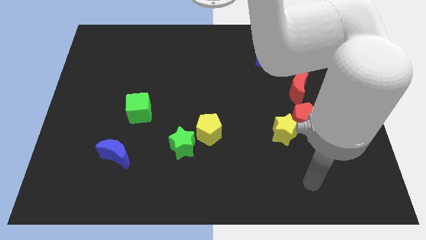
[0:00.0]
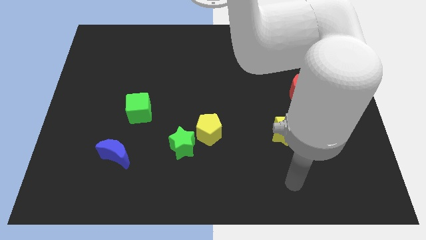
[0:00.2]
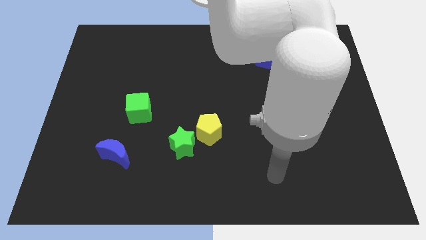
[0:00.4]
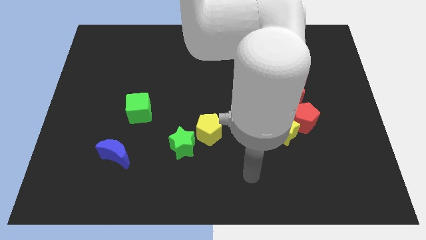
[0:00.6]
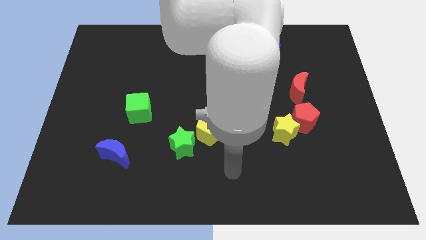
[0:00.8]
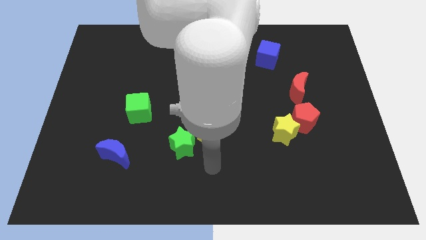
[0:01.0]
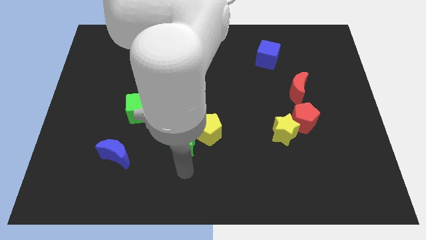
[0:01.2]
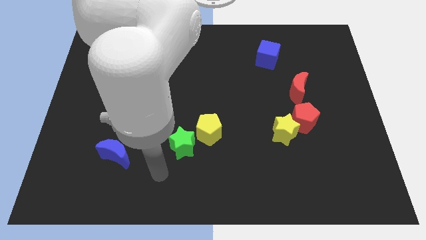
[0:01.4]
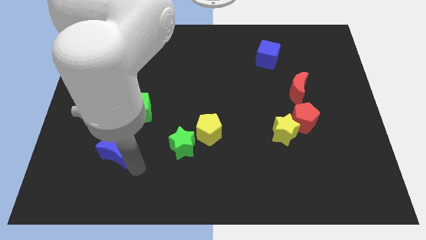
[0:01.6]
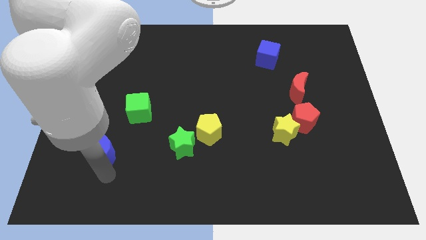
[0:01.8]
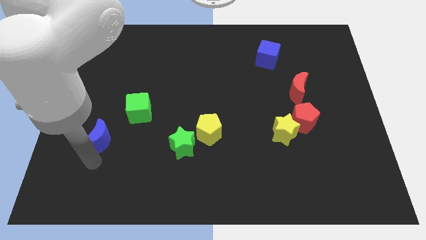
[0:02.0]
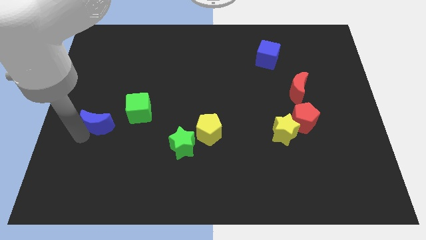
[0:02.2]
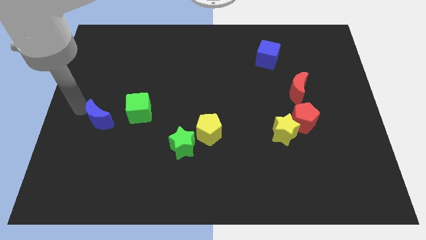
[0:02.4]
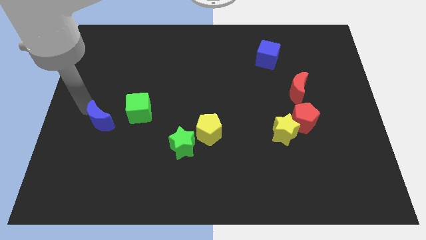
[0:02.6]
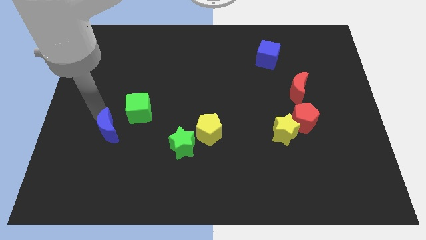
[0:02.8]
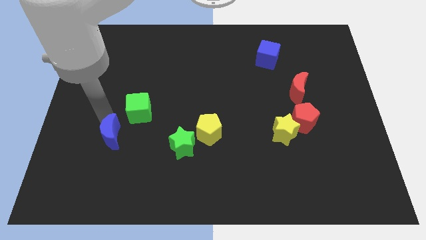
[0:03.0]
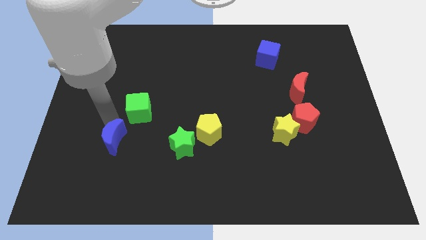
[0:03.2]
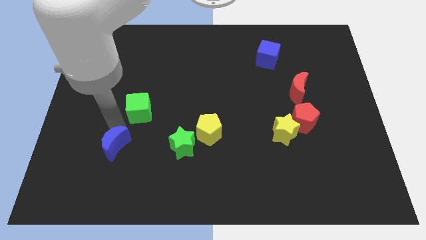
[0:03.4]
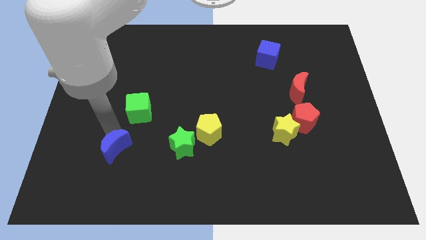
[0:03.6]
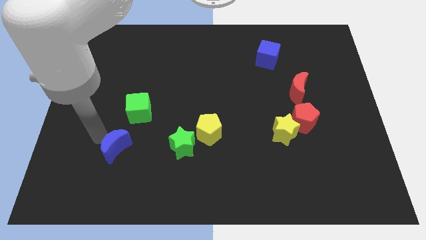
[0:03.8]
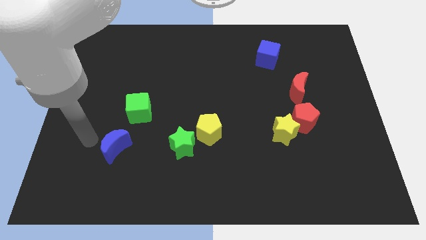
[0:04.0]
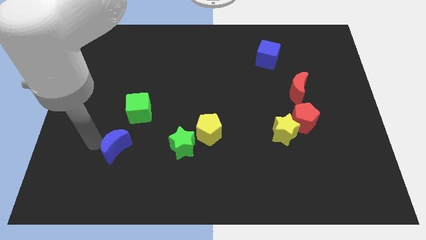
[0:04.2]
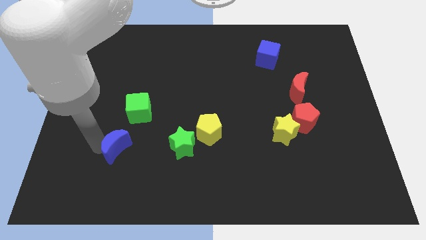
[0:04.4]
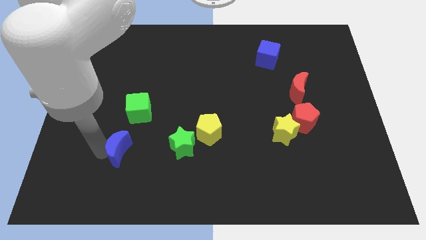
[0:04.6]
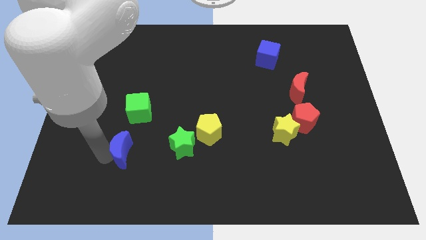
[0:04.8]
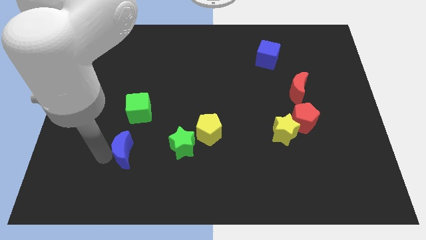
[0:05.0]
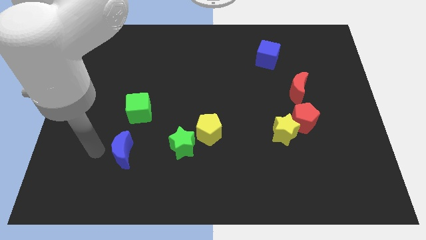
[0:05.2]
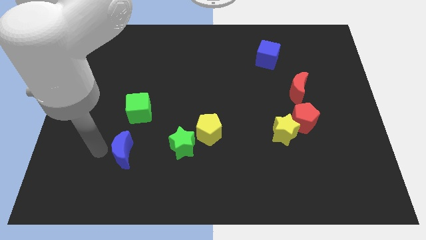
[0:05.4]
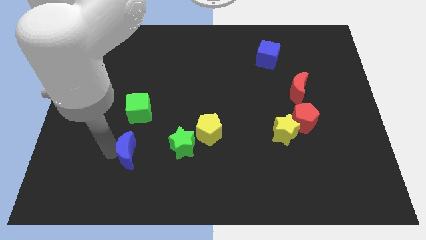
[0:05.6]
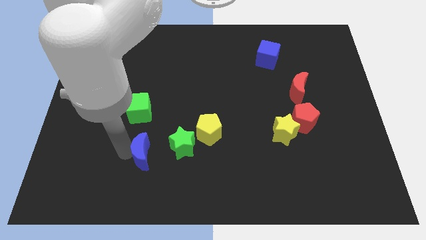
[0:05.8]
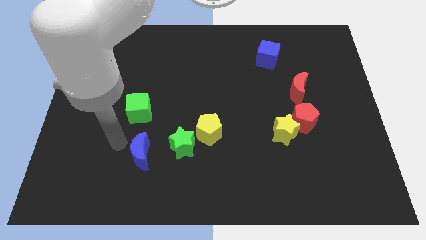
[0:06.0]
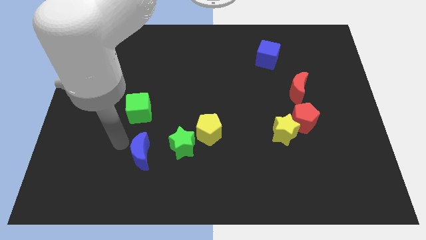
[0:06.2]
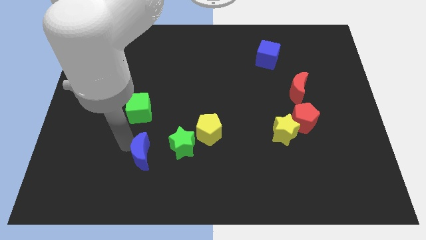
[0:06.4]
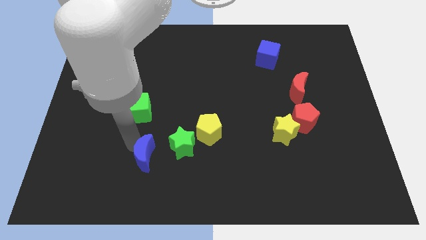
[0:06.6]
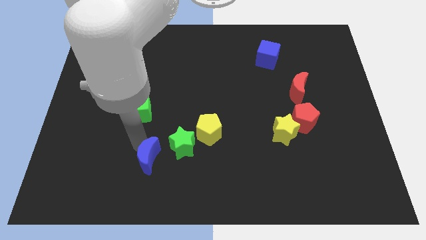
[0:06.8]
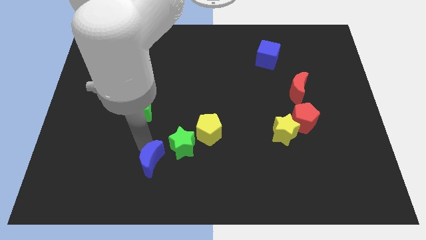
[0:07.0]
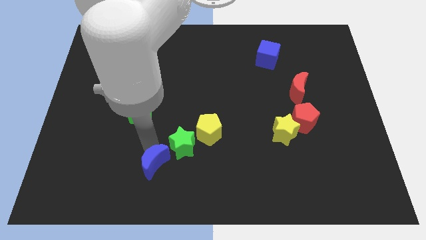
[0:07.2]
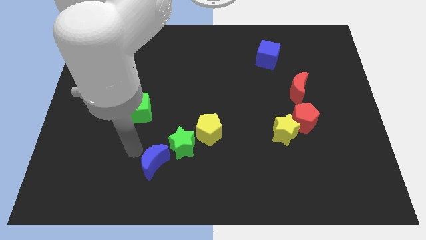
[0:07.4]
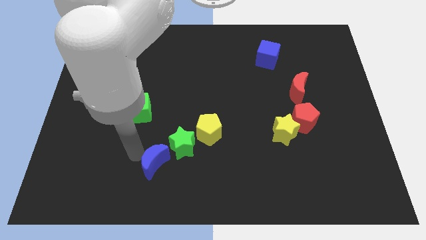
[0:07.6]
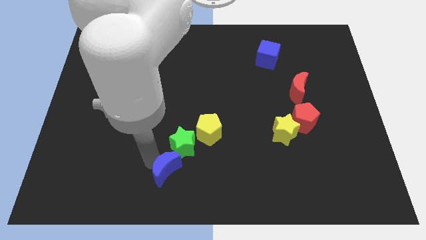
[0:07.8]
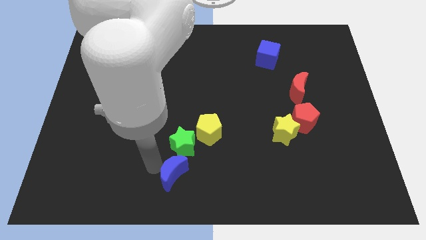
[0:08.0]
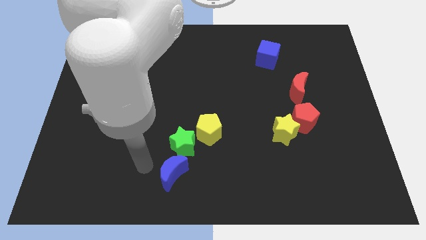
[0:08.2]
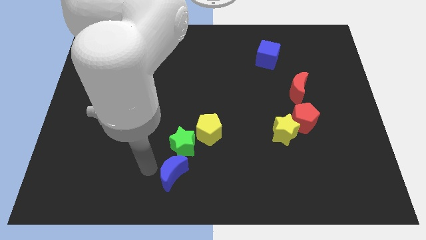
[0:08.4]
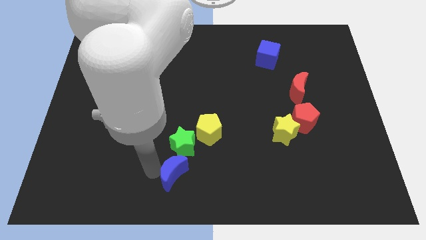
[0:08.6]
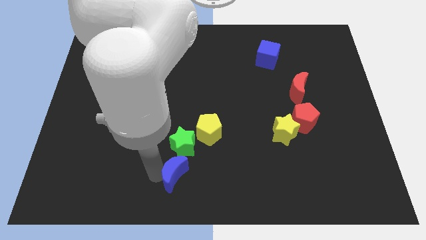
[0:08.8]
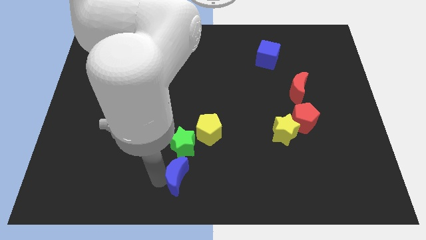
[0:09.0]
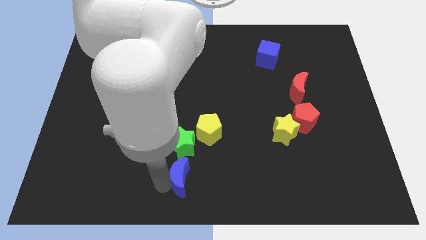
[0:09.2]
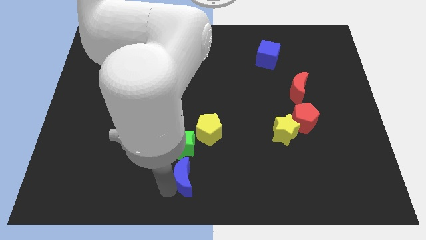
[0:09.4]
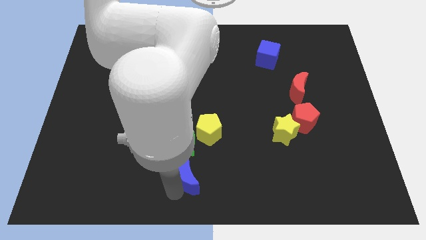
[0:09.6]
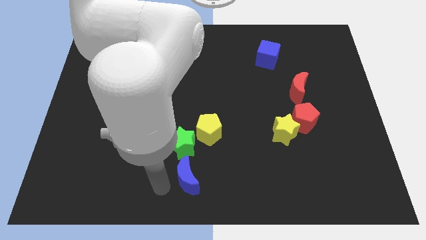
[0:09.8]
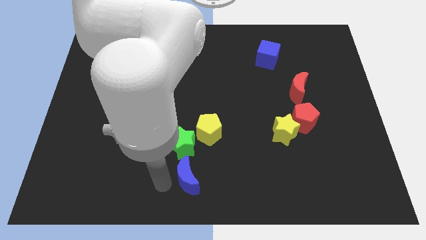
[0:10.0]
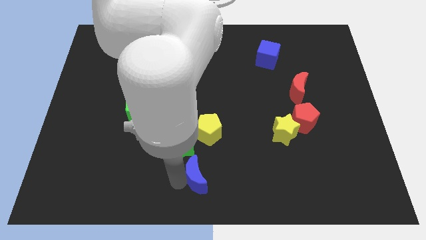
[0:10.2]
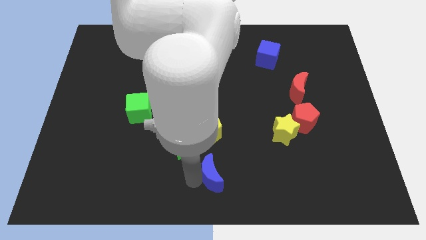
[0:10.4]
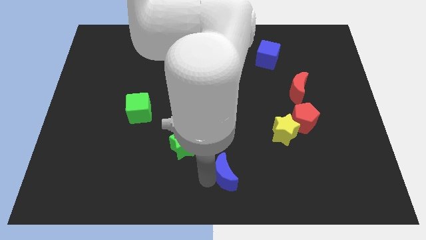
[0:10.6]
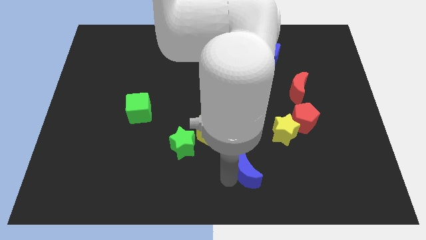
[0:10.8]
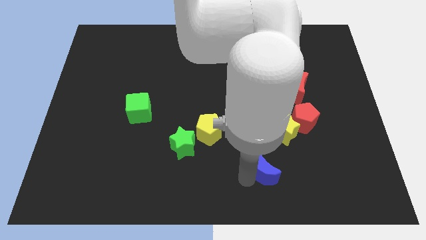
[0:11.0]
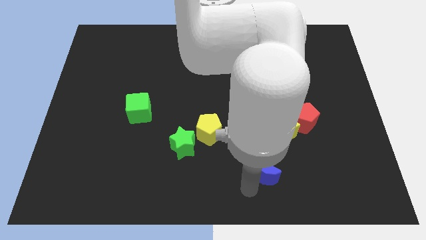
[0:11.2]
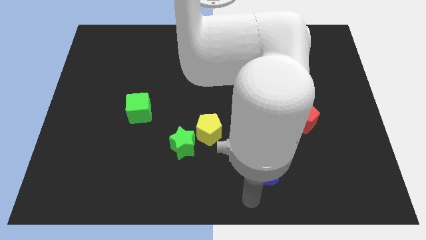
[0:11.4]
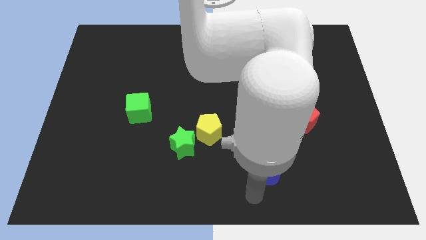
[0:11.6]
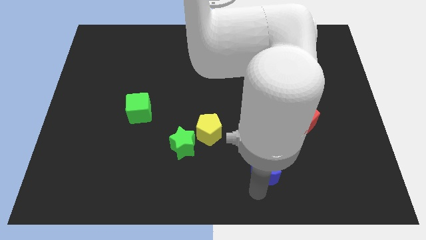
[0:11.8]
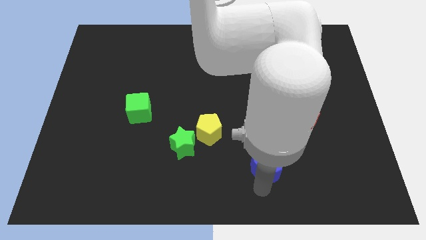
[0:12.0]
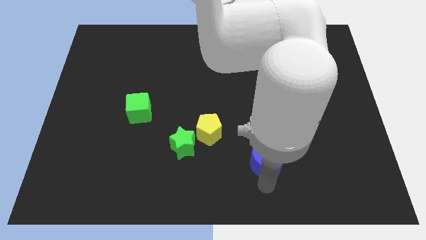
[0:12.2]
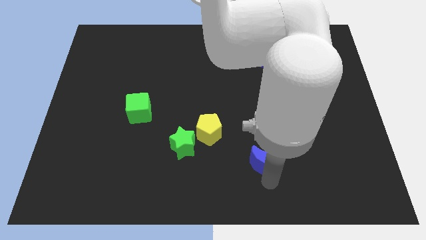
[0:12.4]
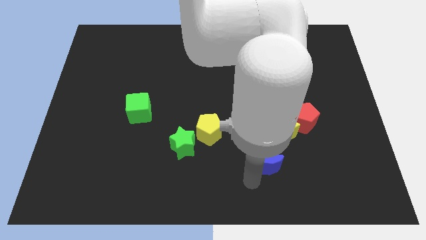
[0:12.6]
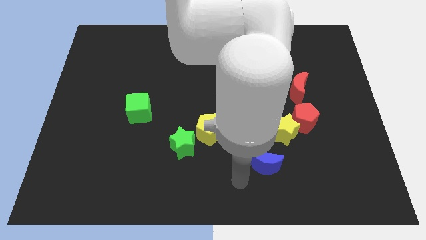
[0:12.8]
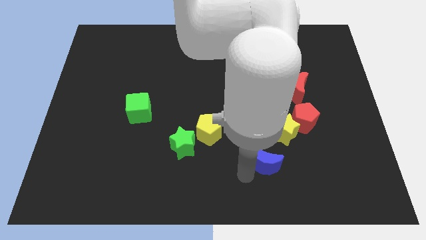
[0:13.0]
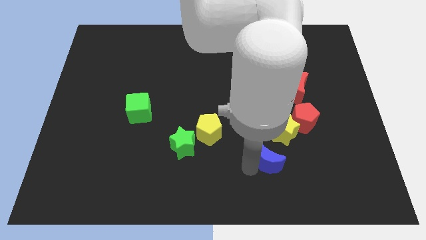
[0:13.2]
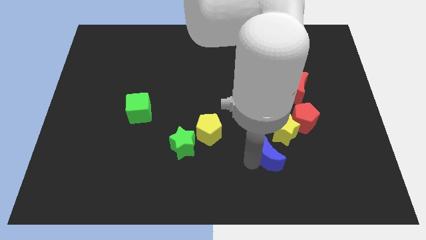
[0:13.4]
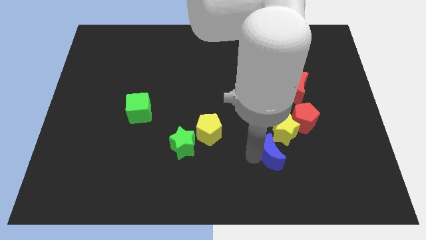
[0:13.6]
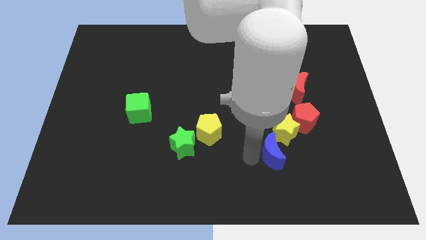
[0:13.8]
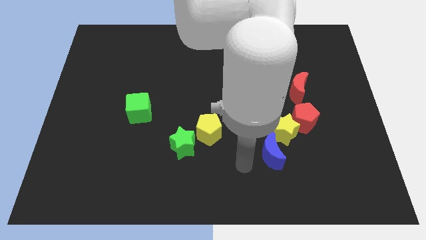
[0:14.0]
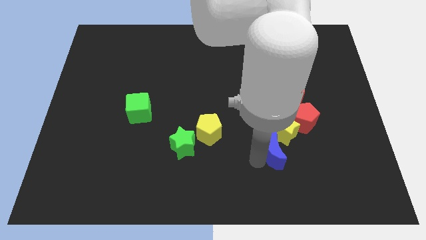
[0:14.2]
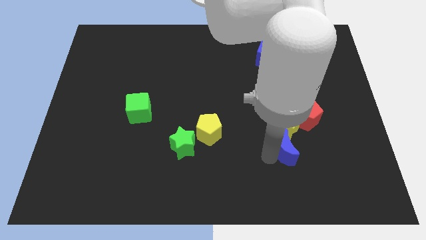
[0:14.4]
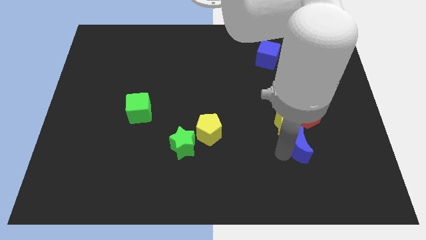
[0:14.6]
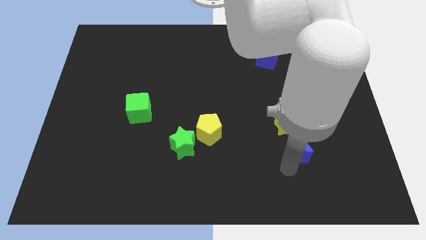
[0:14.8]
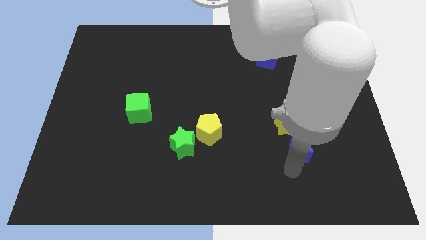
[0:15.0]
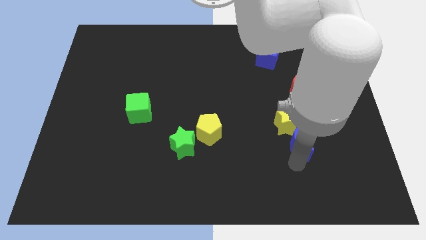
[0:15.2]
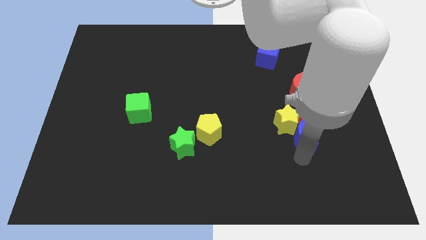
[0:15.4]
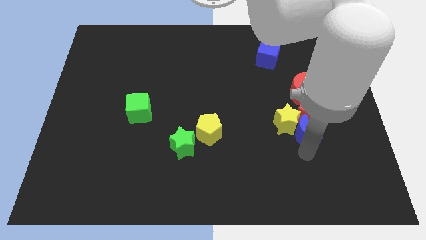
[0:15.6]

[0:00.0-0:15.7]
slide the blue moon to the red pentagon
